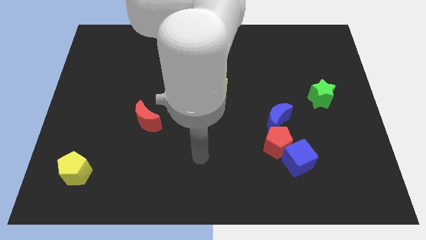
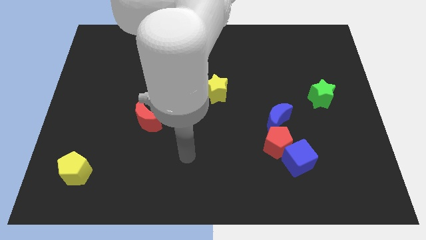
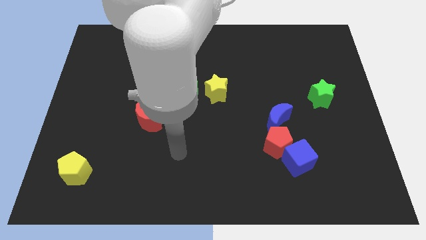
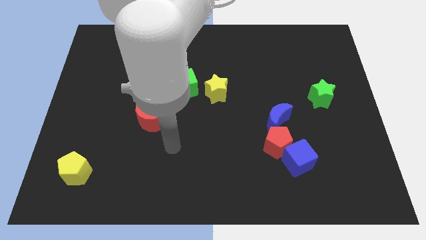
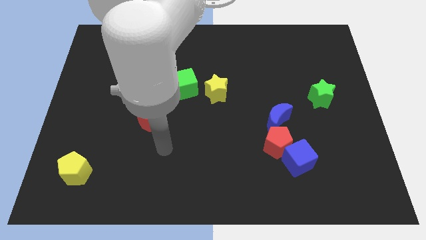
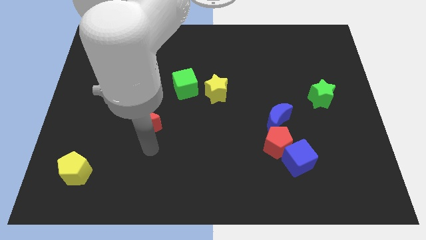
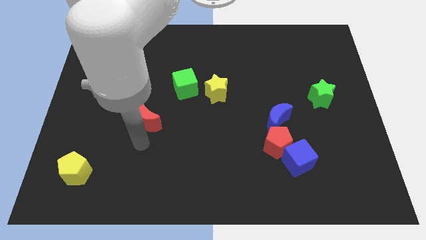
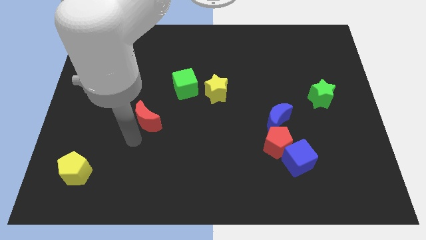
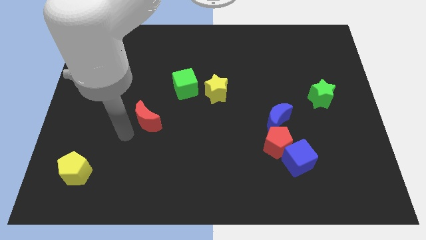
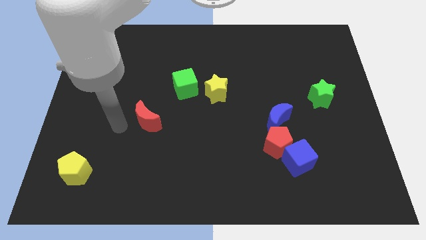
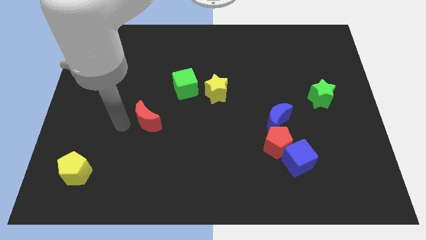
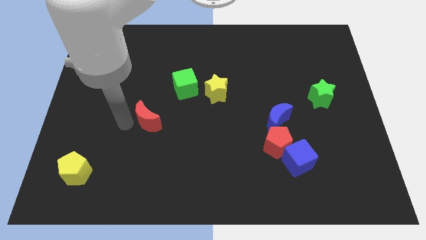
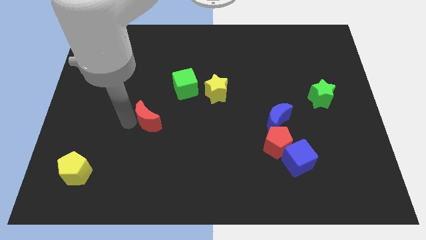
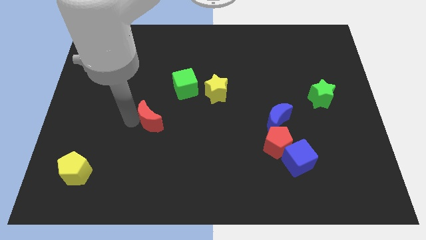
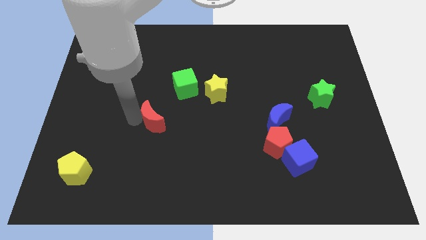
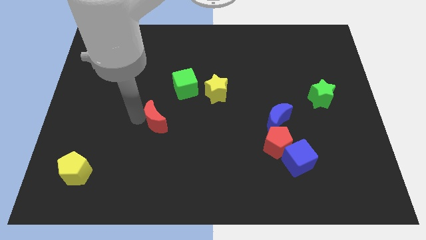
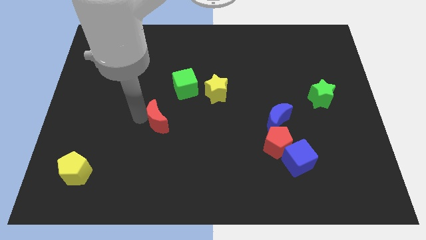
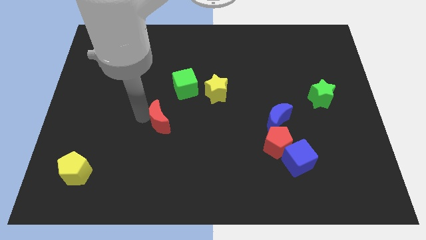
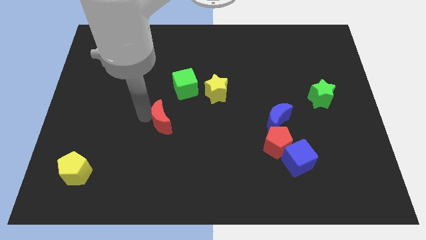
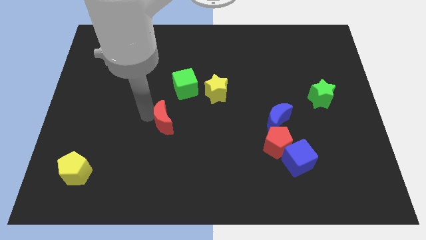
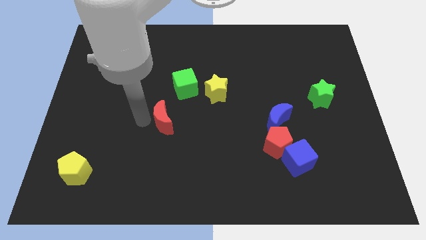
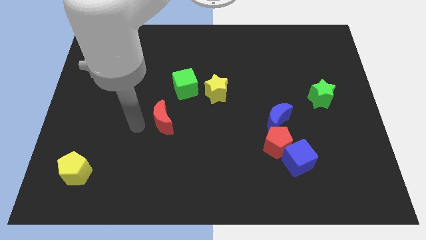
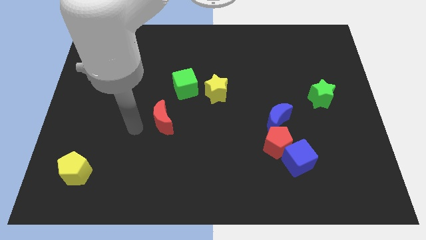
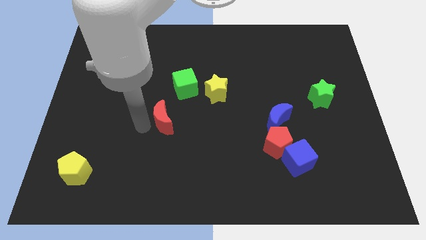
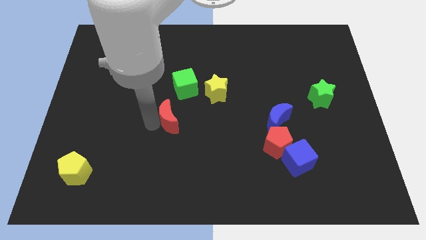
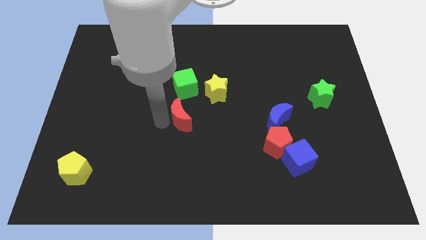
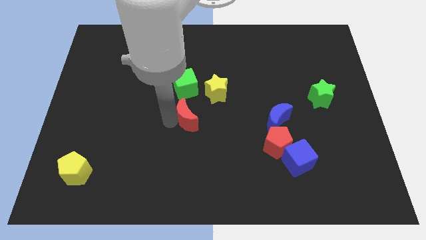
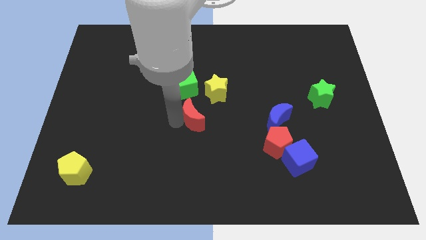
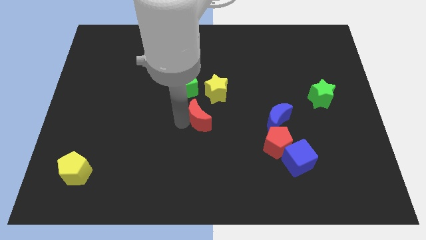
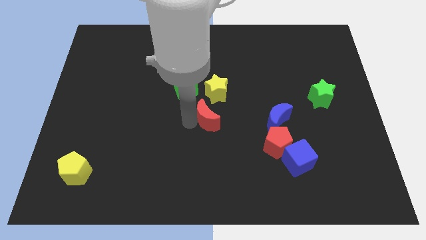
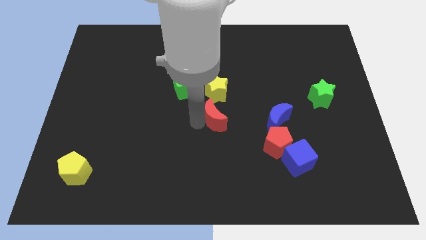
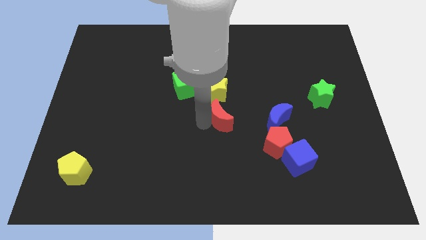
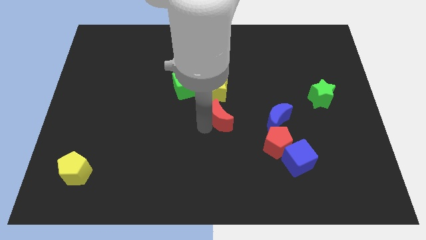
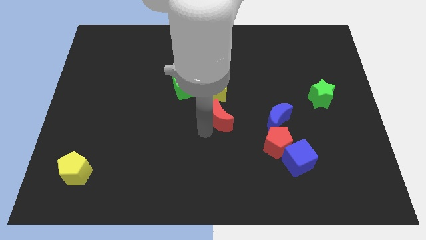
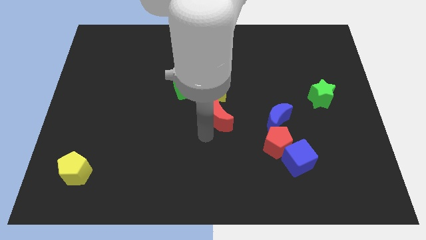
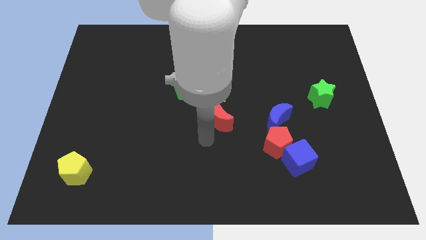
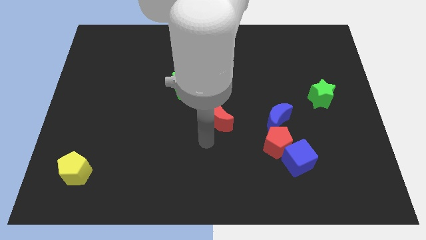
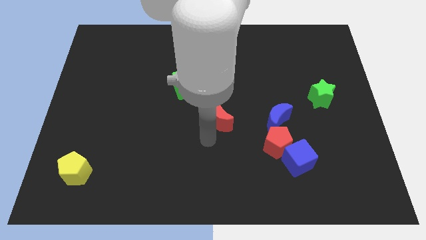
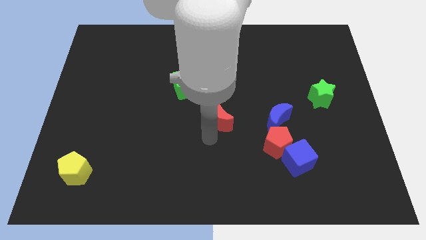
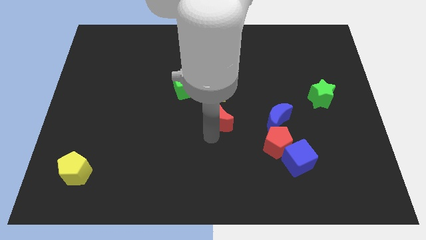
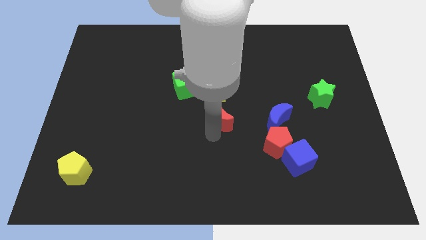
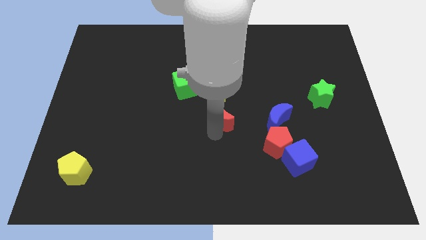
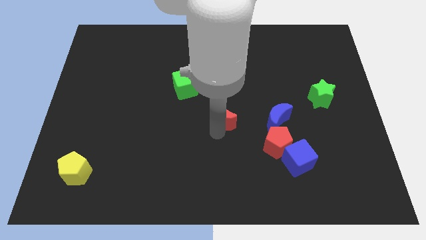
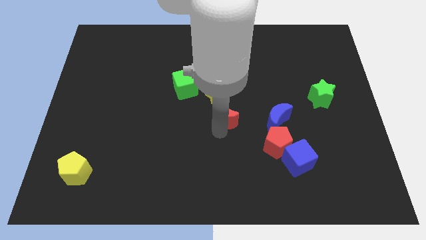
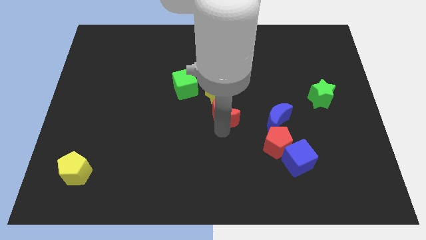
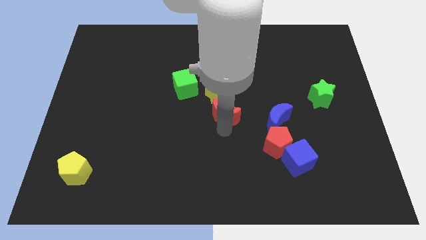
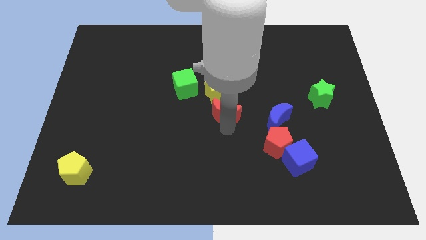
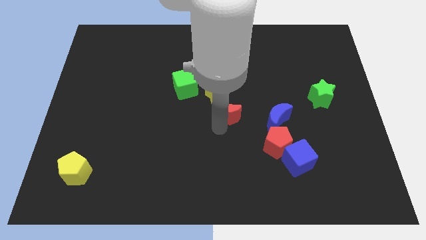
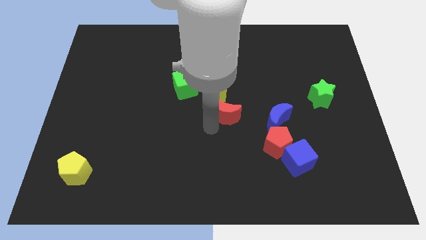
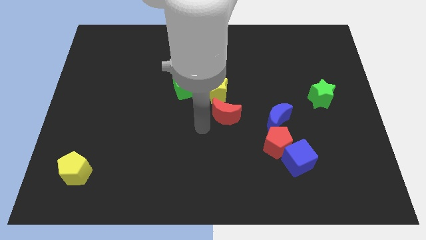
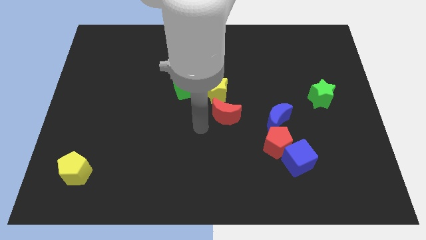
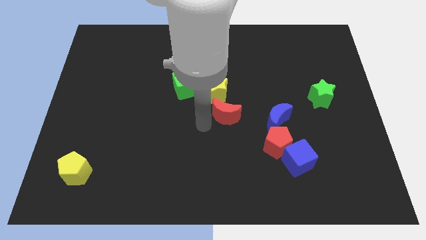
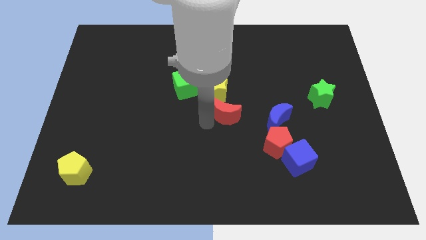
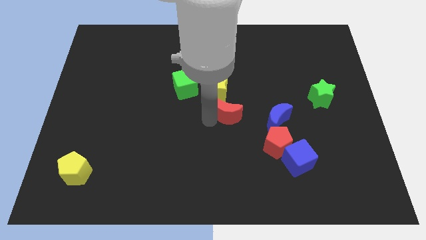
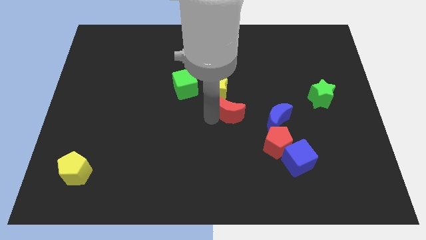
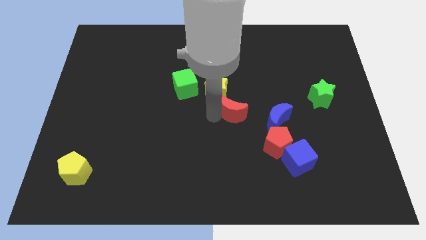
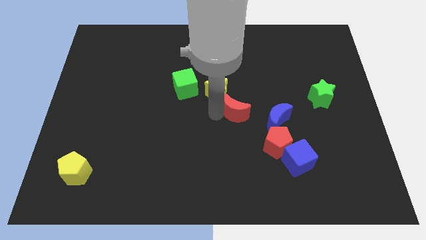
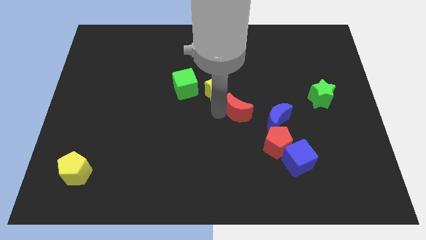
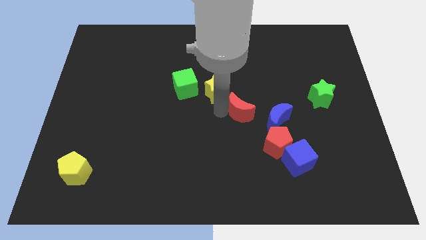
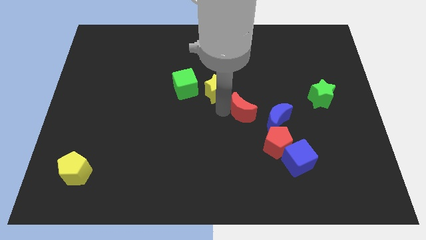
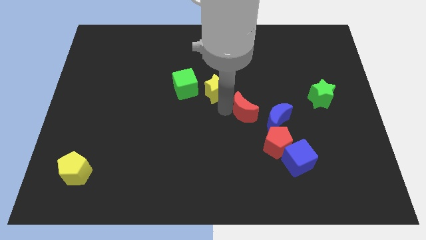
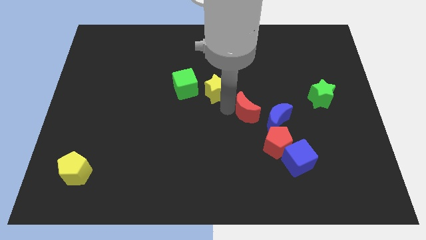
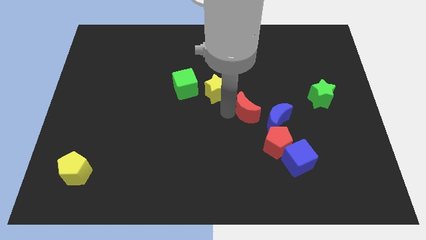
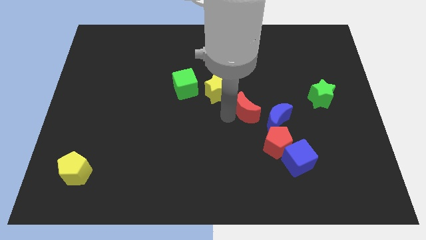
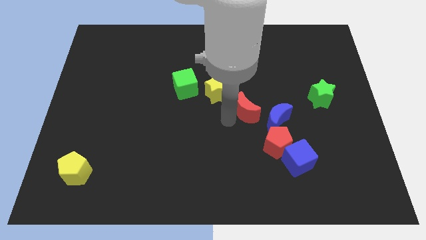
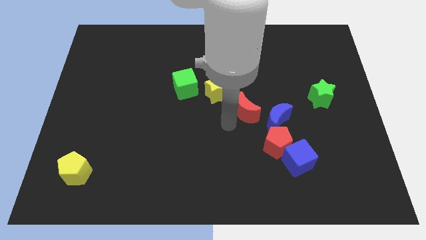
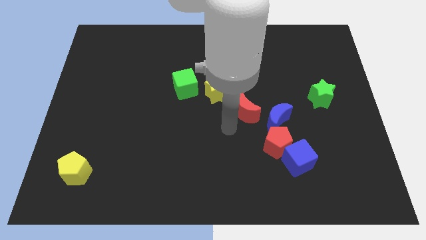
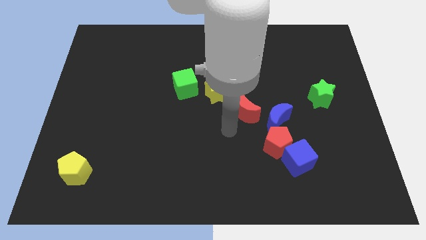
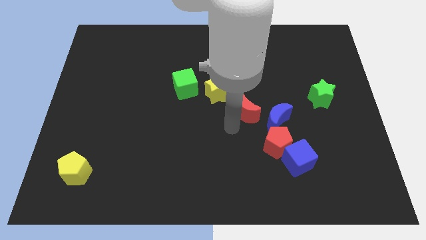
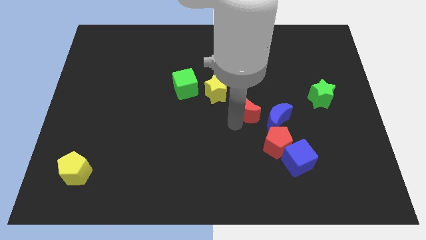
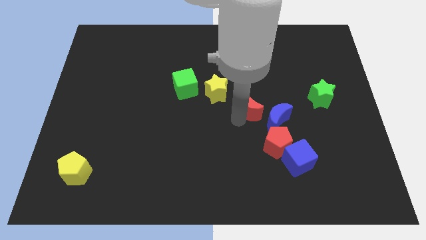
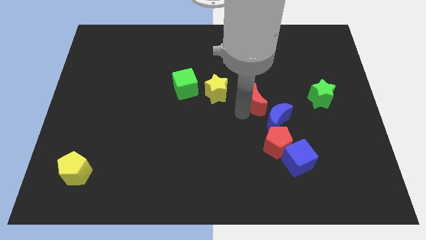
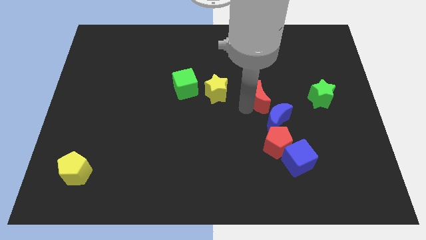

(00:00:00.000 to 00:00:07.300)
move the red moon to the left side of the green star
